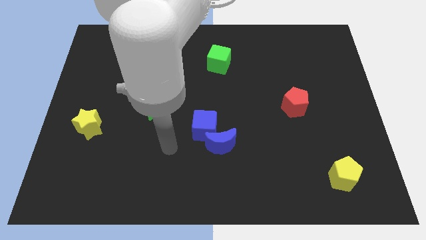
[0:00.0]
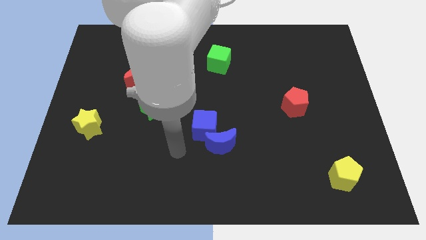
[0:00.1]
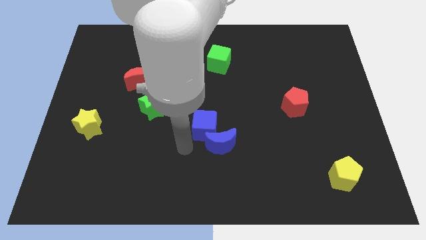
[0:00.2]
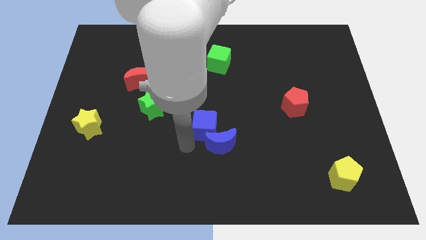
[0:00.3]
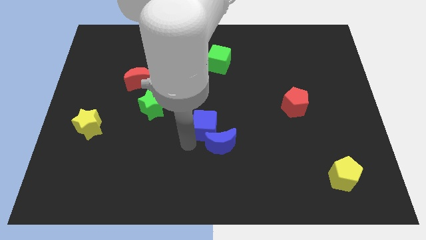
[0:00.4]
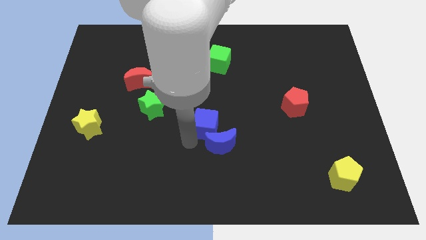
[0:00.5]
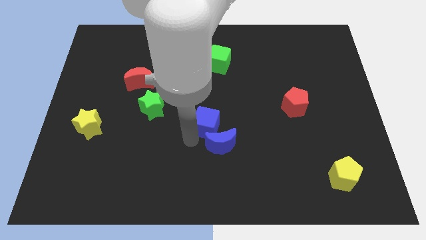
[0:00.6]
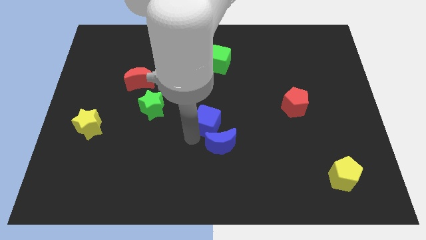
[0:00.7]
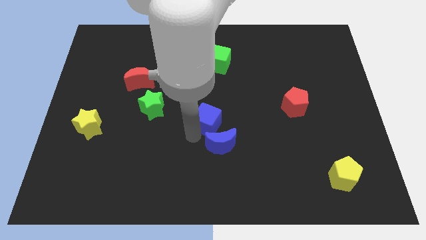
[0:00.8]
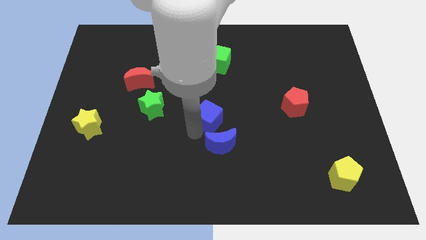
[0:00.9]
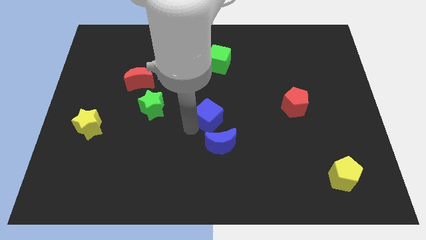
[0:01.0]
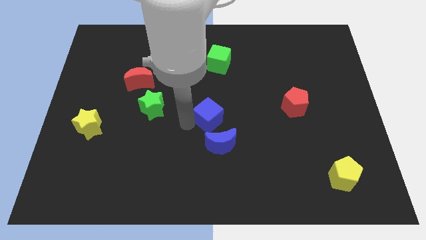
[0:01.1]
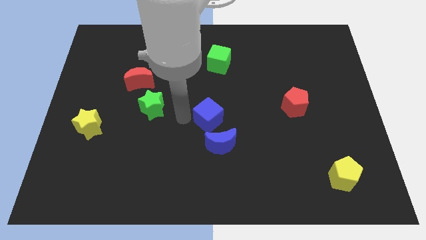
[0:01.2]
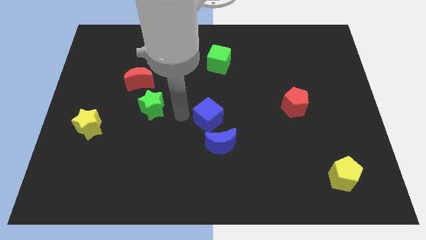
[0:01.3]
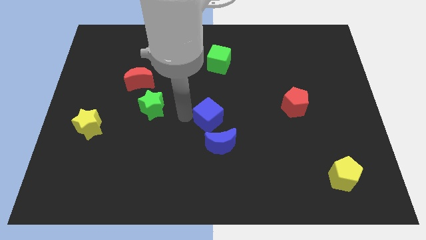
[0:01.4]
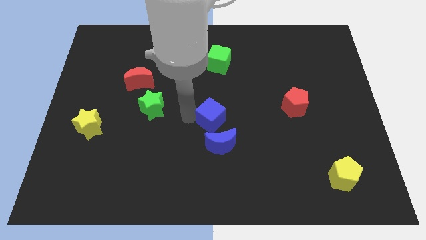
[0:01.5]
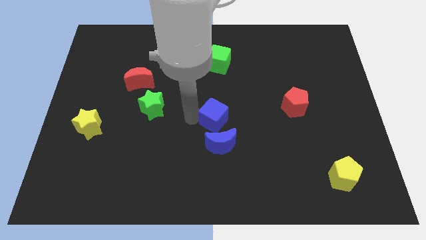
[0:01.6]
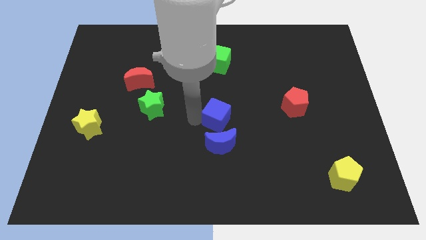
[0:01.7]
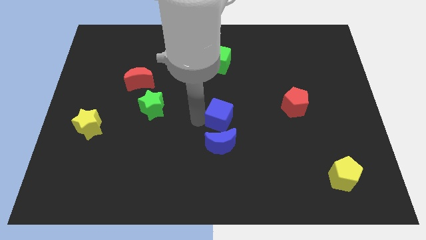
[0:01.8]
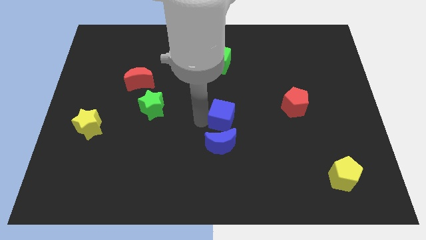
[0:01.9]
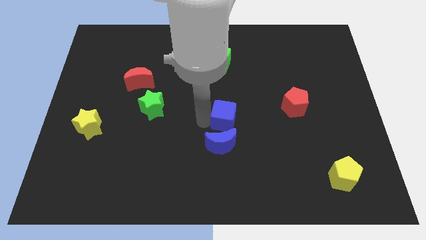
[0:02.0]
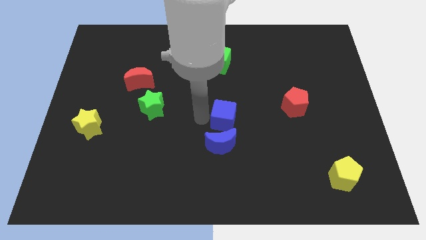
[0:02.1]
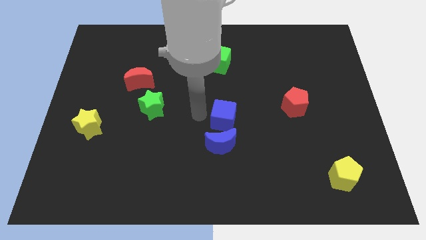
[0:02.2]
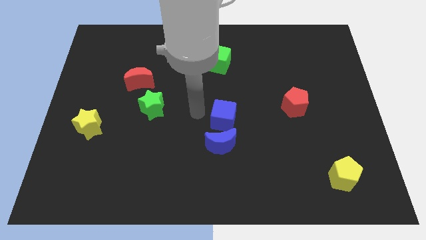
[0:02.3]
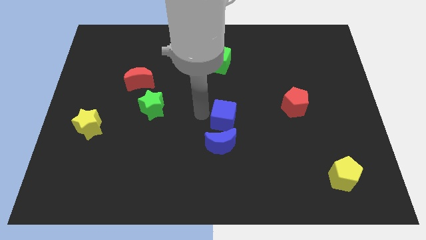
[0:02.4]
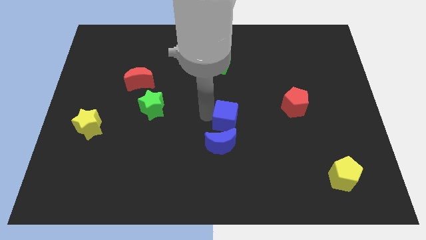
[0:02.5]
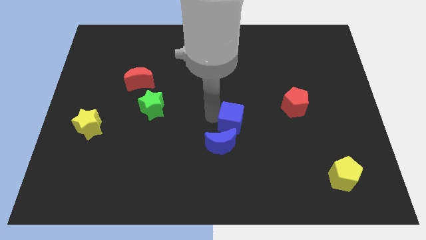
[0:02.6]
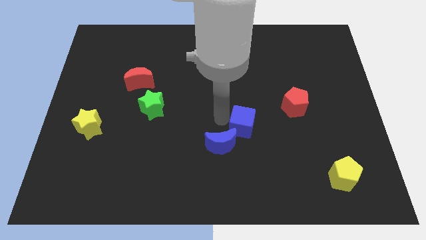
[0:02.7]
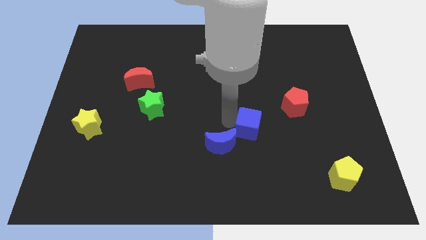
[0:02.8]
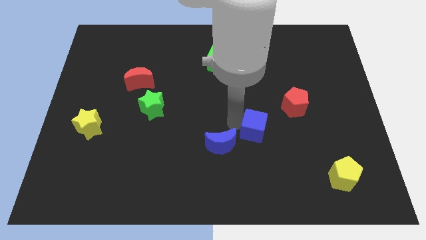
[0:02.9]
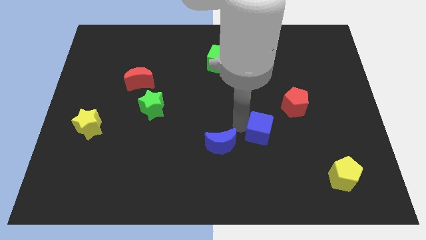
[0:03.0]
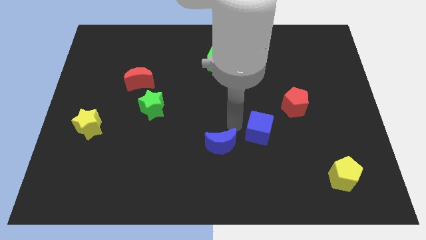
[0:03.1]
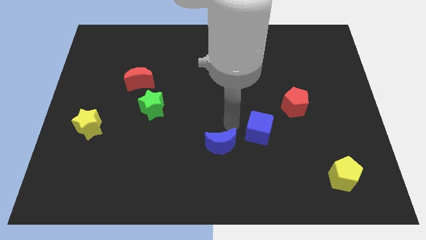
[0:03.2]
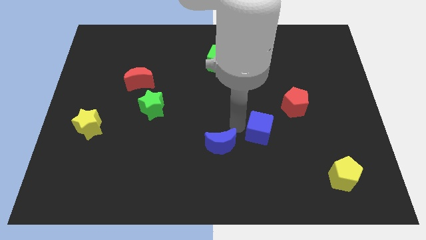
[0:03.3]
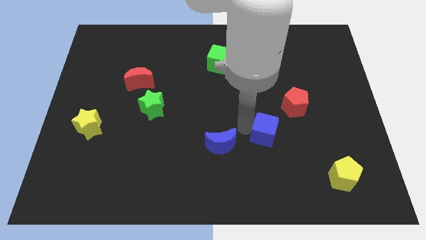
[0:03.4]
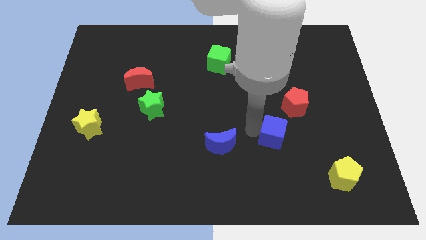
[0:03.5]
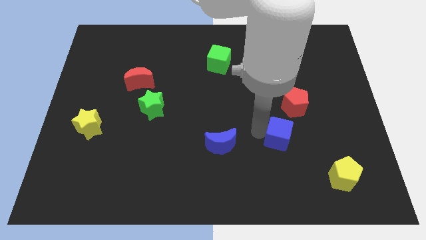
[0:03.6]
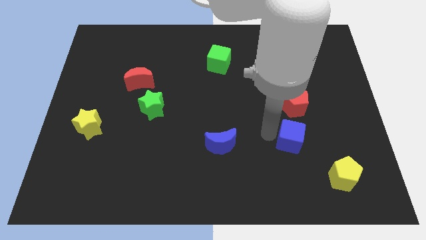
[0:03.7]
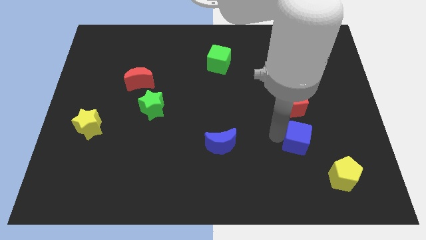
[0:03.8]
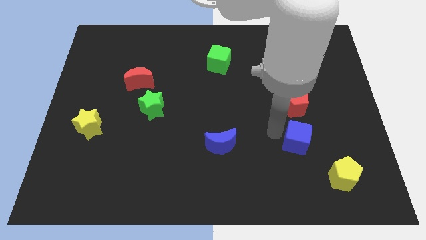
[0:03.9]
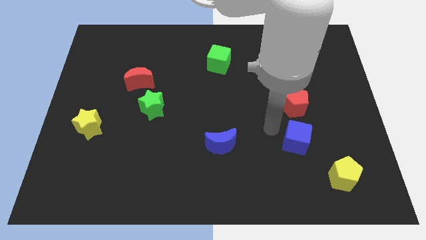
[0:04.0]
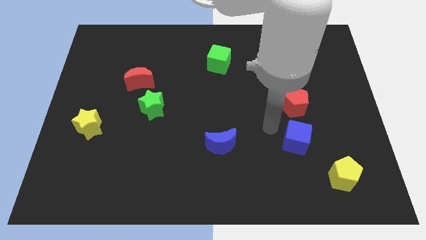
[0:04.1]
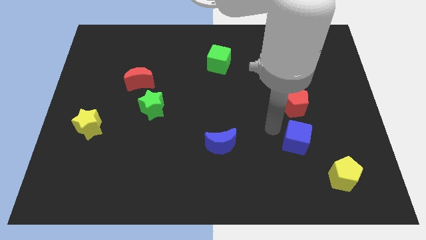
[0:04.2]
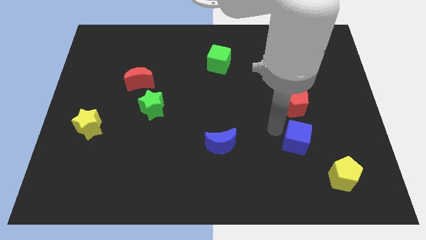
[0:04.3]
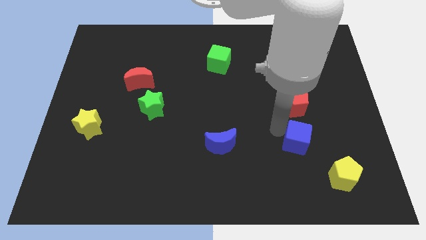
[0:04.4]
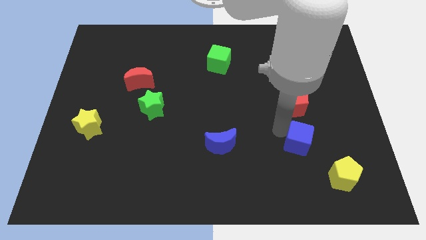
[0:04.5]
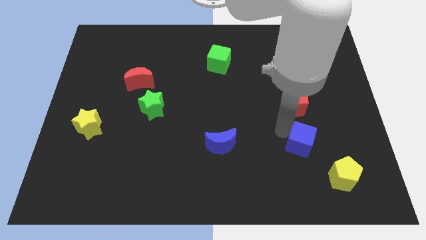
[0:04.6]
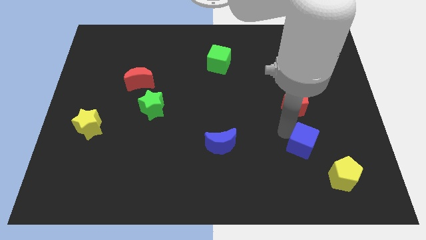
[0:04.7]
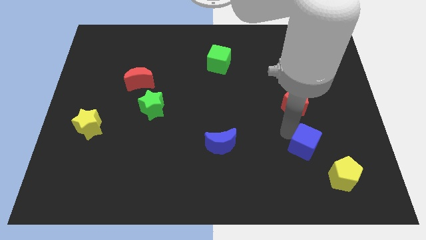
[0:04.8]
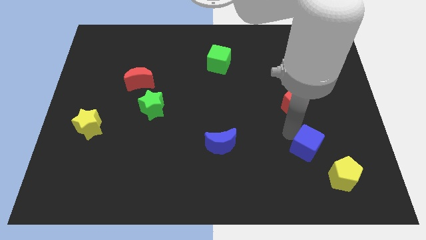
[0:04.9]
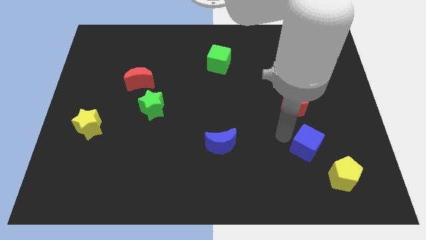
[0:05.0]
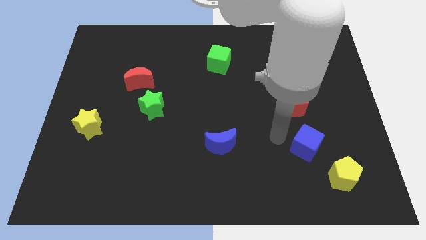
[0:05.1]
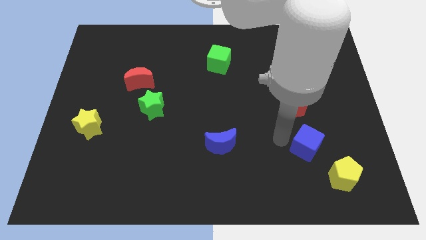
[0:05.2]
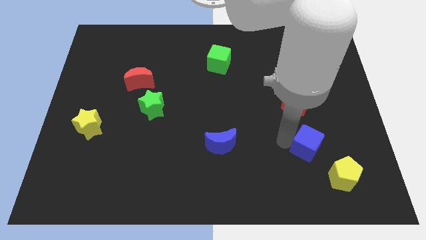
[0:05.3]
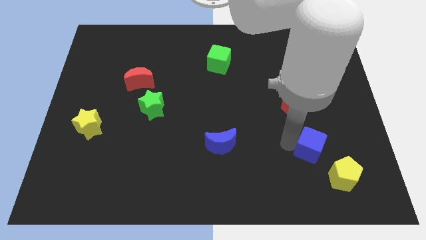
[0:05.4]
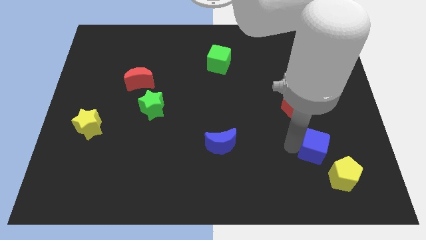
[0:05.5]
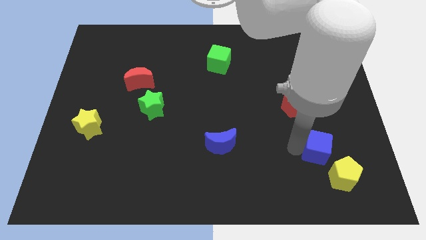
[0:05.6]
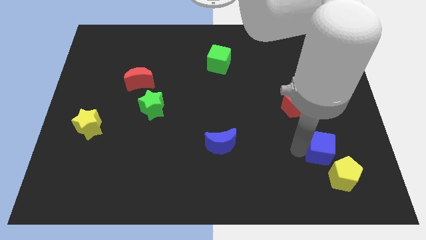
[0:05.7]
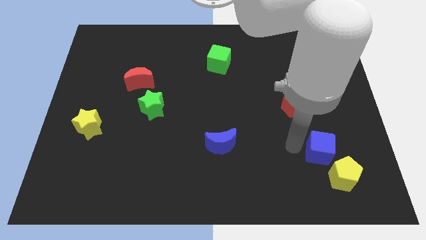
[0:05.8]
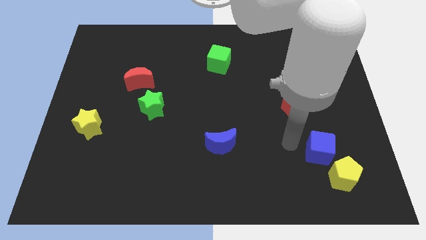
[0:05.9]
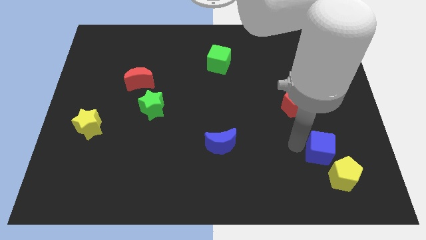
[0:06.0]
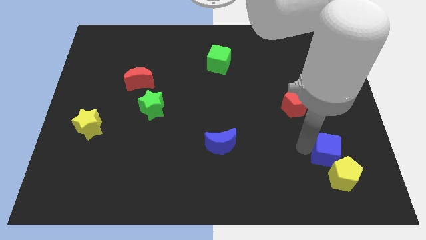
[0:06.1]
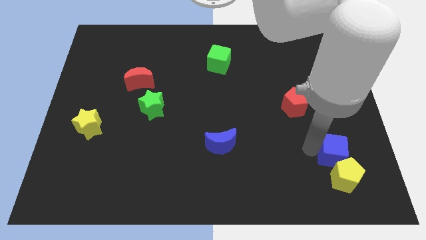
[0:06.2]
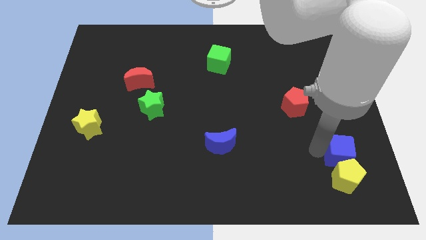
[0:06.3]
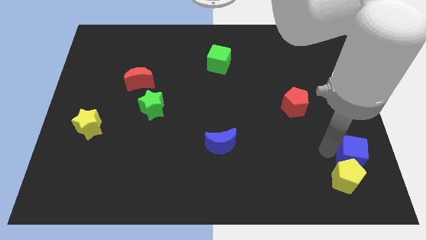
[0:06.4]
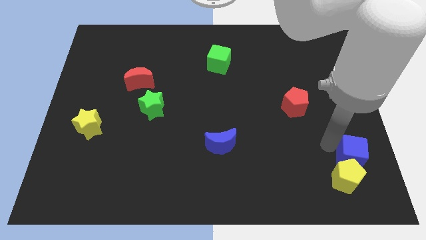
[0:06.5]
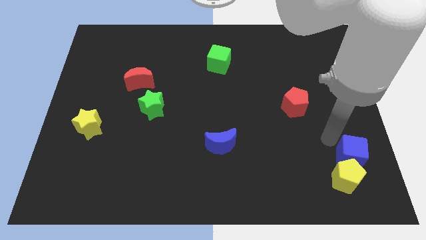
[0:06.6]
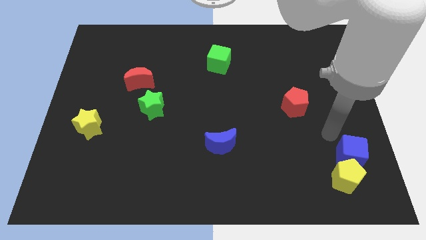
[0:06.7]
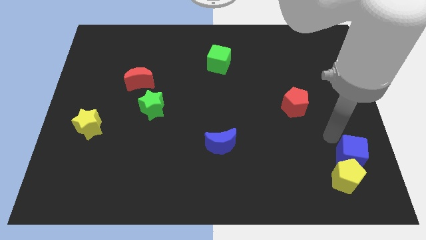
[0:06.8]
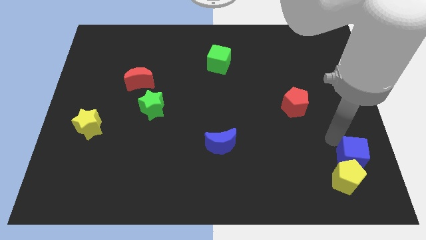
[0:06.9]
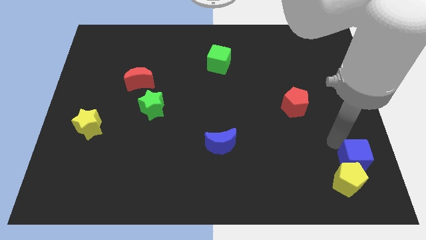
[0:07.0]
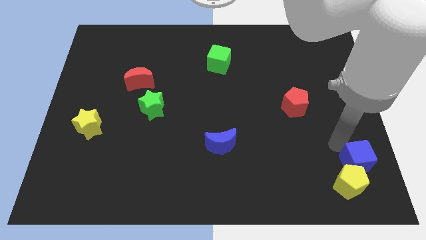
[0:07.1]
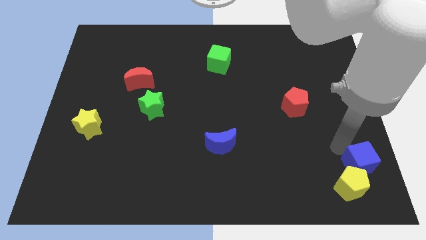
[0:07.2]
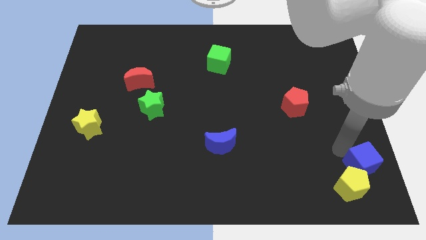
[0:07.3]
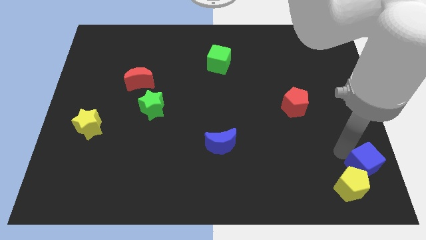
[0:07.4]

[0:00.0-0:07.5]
put the blue cube to the bottom right
